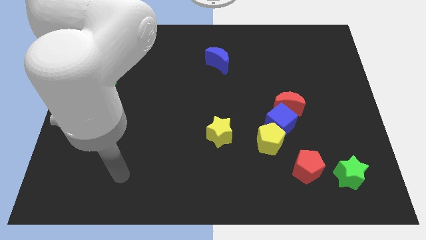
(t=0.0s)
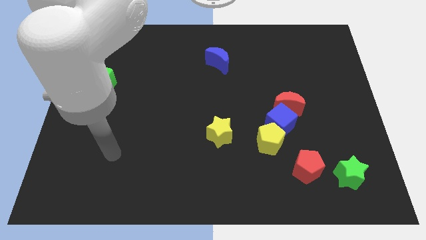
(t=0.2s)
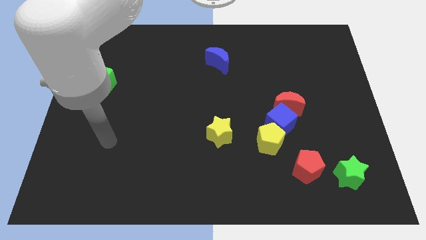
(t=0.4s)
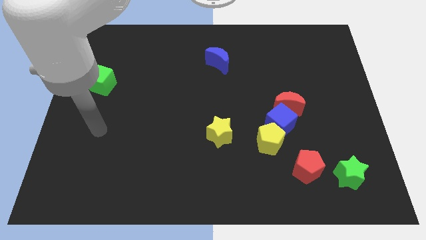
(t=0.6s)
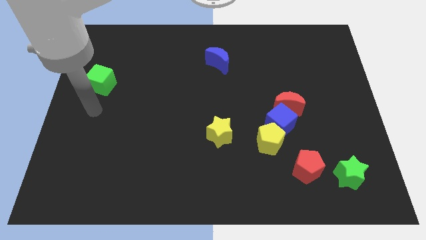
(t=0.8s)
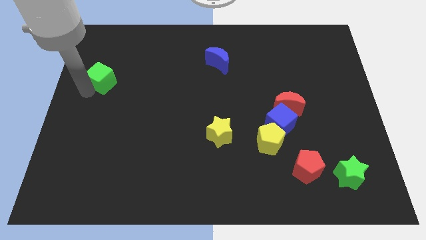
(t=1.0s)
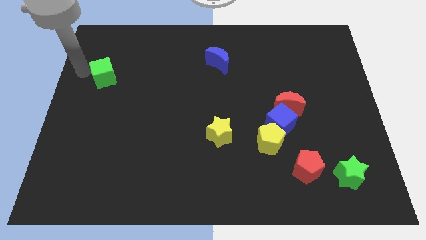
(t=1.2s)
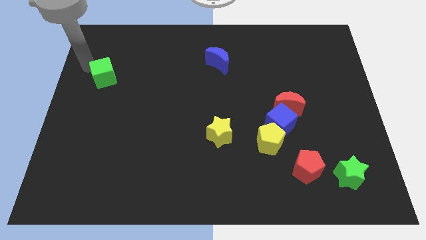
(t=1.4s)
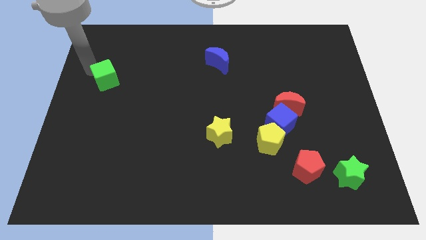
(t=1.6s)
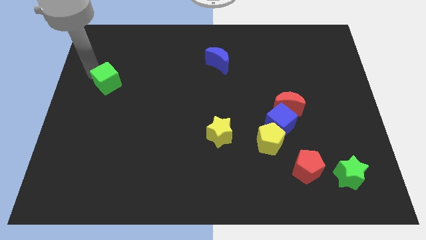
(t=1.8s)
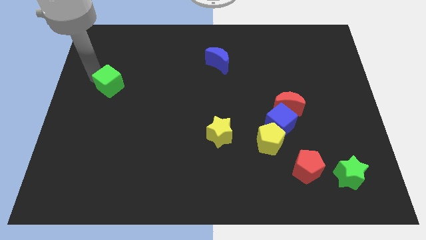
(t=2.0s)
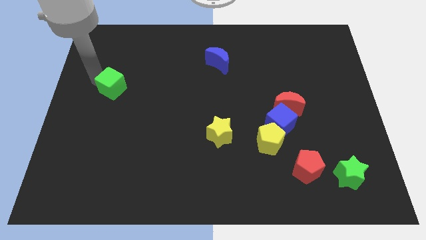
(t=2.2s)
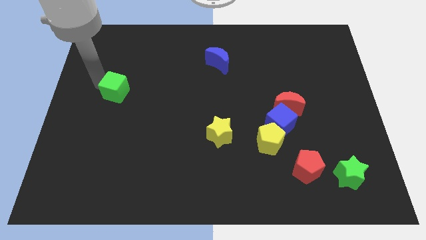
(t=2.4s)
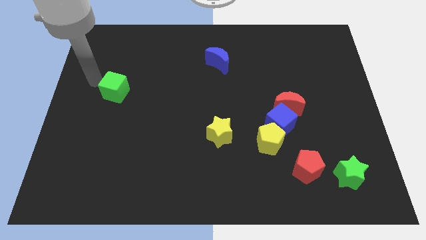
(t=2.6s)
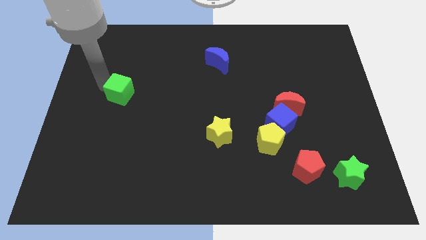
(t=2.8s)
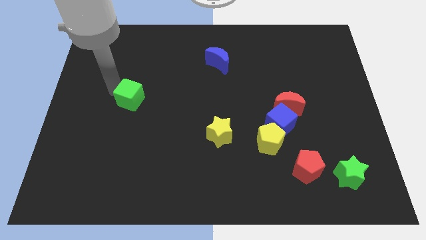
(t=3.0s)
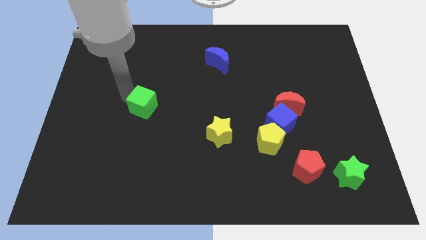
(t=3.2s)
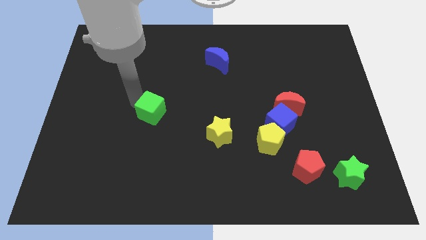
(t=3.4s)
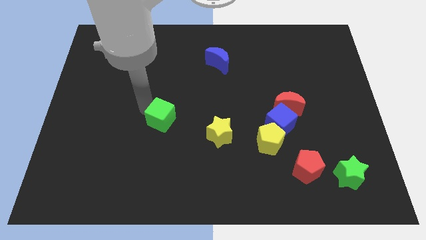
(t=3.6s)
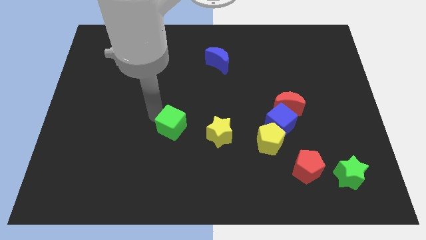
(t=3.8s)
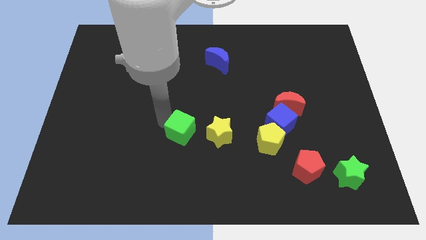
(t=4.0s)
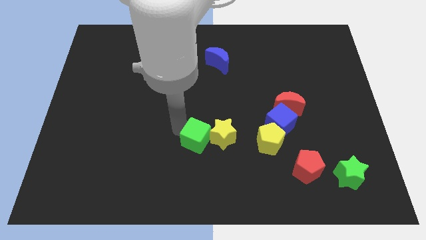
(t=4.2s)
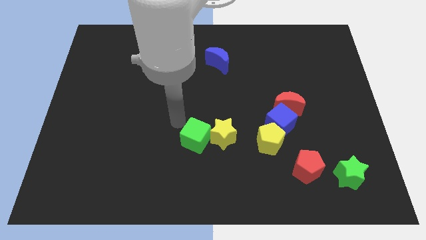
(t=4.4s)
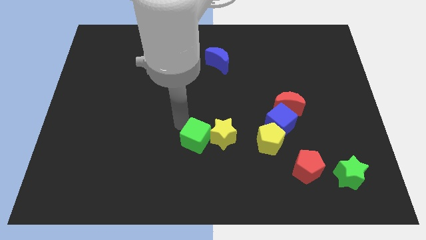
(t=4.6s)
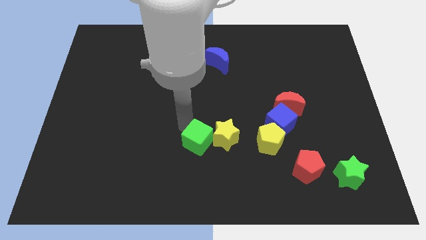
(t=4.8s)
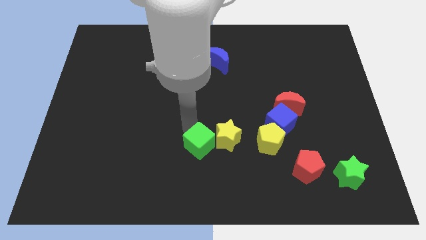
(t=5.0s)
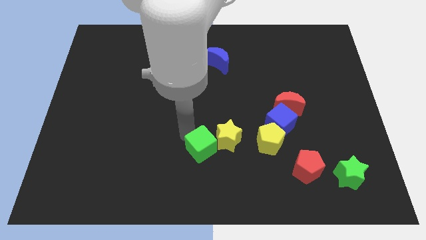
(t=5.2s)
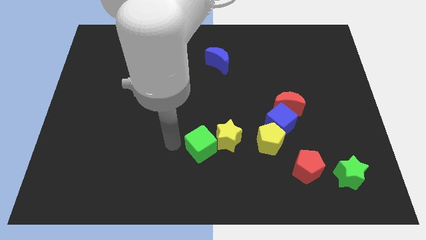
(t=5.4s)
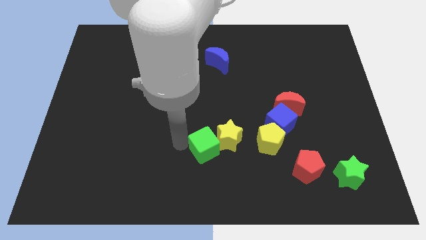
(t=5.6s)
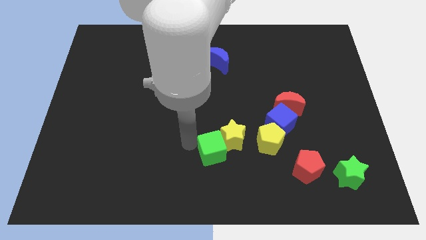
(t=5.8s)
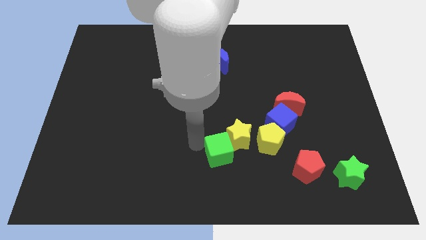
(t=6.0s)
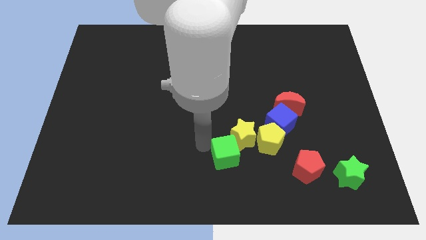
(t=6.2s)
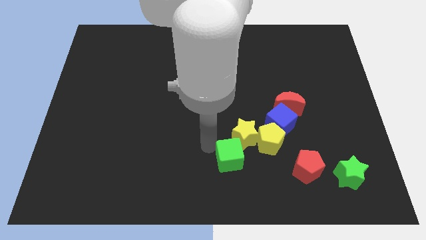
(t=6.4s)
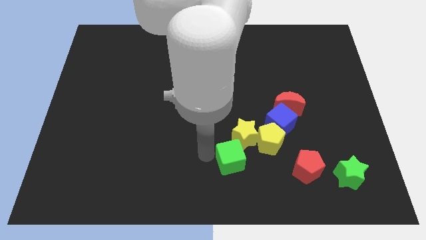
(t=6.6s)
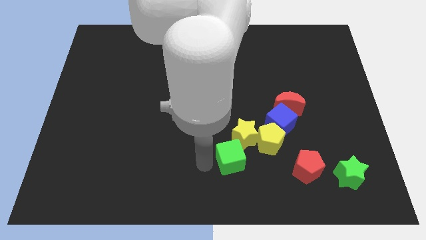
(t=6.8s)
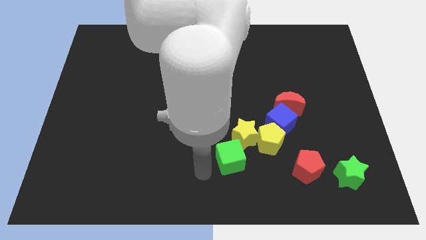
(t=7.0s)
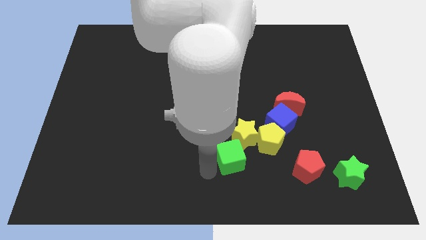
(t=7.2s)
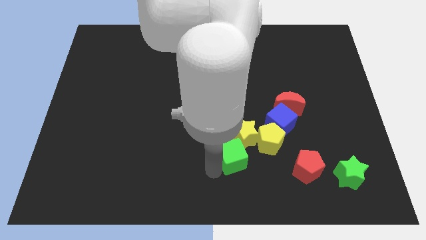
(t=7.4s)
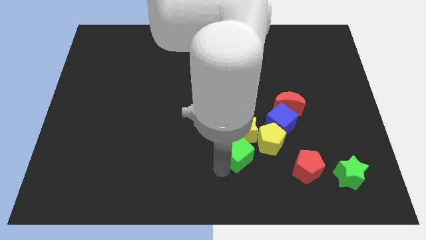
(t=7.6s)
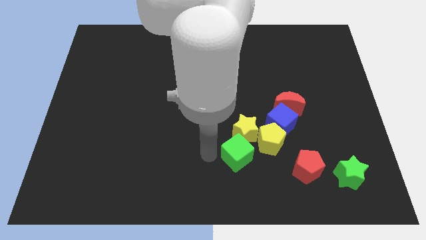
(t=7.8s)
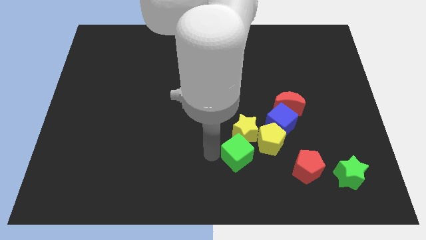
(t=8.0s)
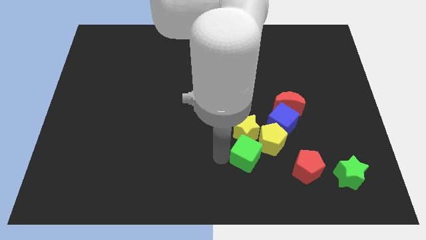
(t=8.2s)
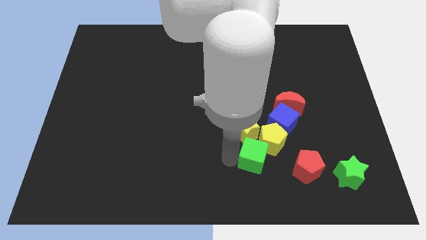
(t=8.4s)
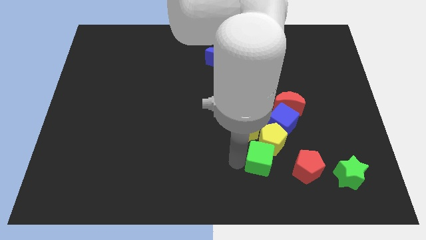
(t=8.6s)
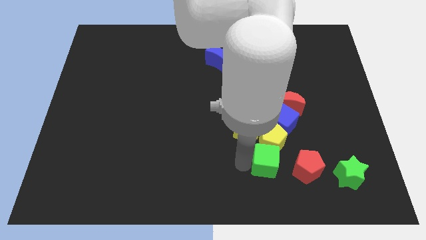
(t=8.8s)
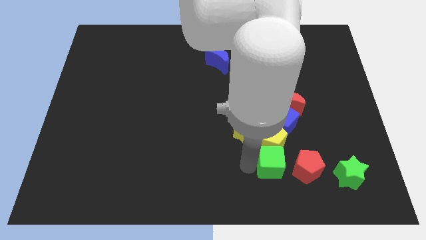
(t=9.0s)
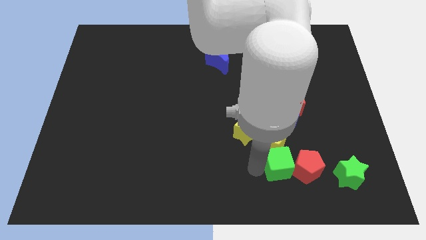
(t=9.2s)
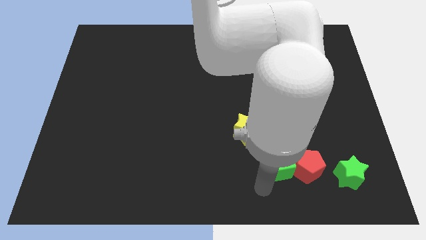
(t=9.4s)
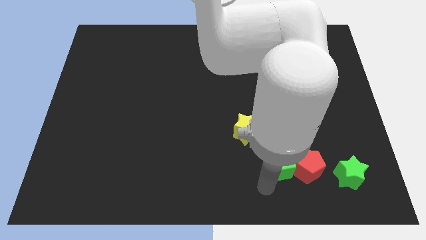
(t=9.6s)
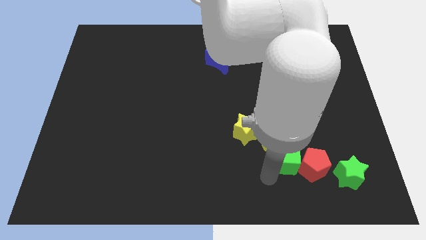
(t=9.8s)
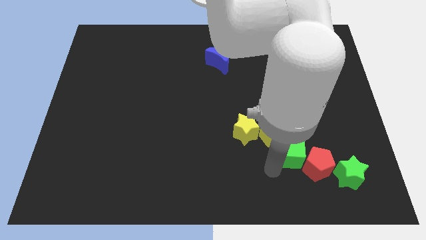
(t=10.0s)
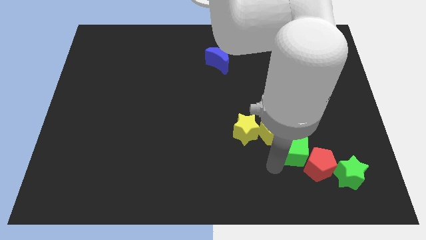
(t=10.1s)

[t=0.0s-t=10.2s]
slide the green cube to the top of the red pentagon

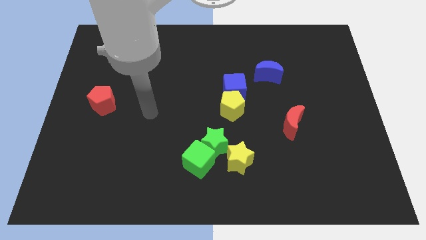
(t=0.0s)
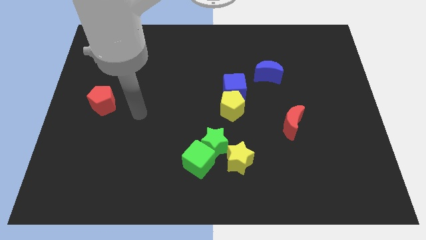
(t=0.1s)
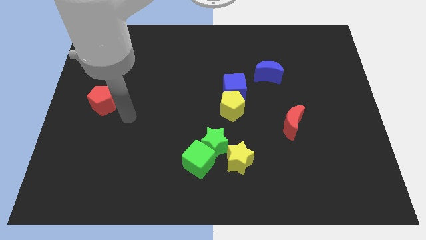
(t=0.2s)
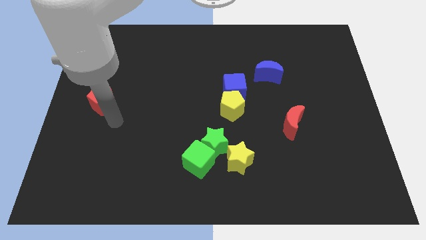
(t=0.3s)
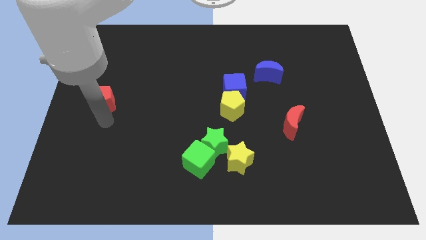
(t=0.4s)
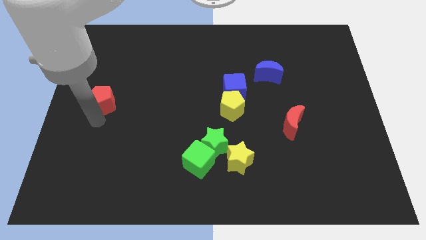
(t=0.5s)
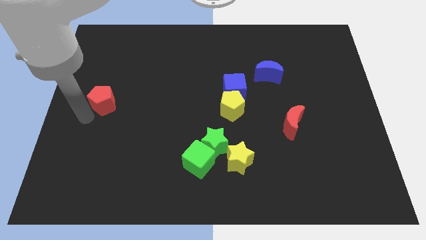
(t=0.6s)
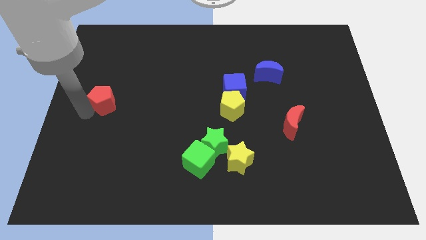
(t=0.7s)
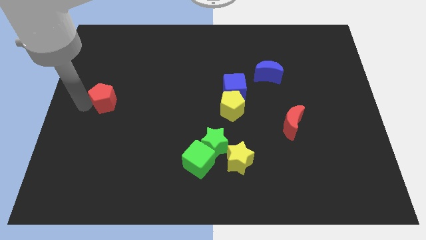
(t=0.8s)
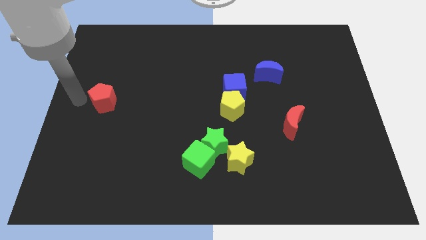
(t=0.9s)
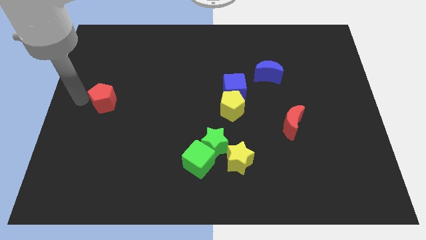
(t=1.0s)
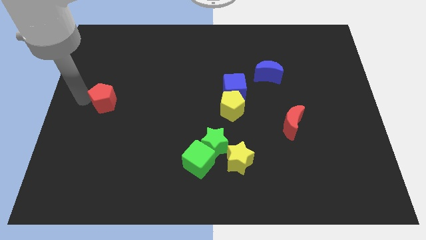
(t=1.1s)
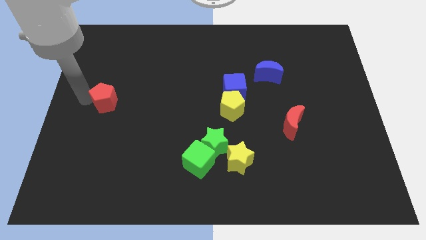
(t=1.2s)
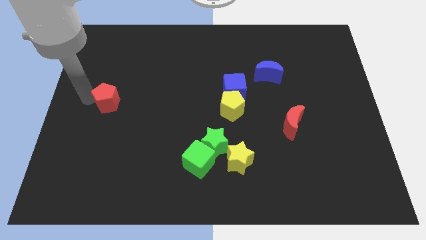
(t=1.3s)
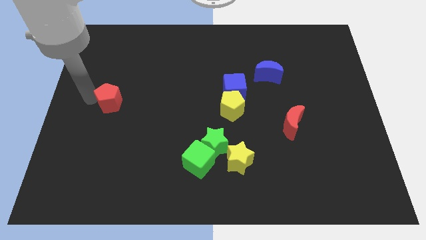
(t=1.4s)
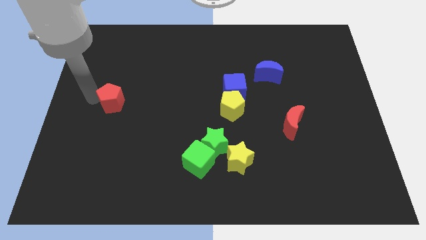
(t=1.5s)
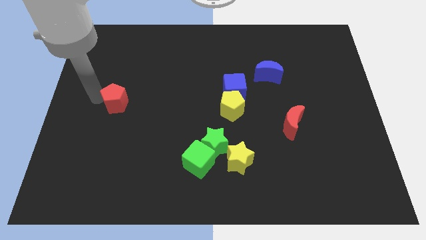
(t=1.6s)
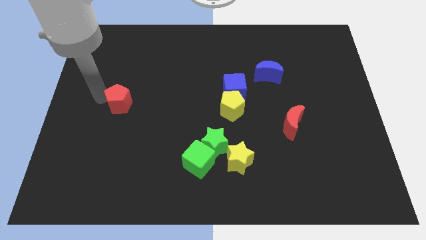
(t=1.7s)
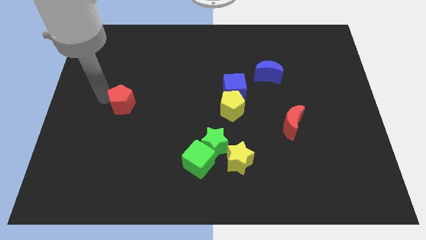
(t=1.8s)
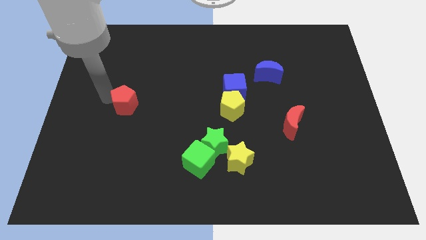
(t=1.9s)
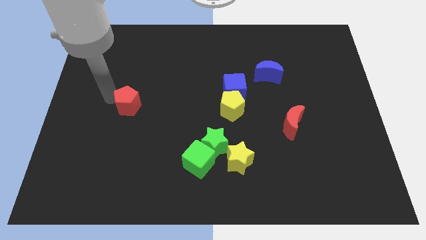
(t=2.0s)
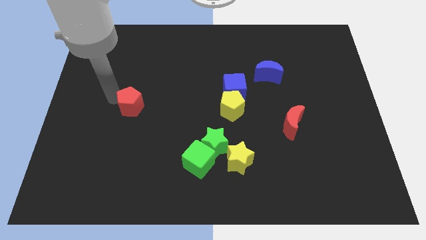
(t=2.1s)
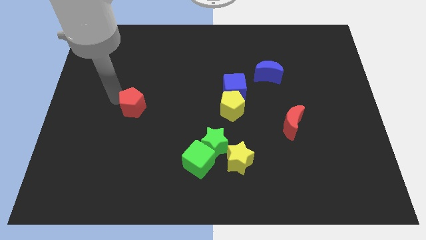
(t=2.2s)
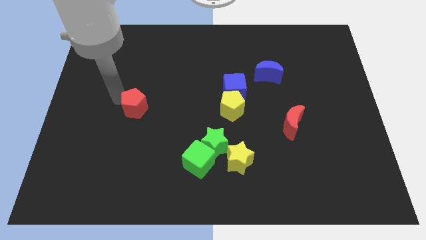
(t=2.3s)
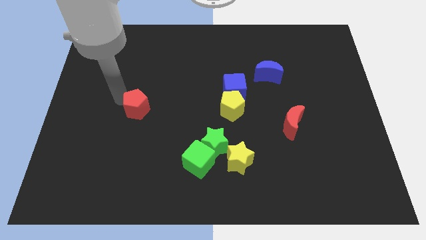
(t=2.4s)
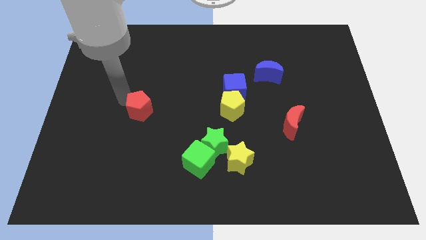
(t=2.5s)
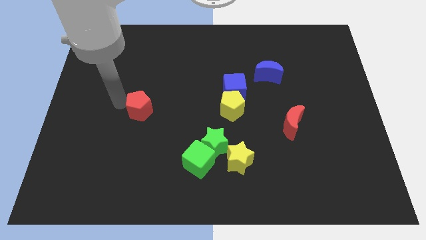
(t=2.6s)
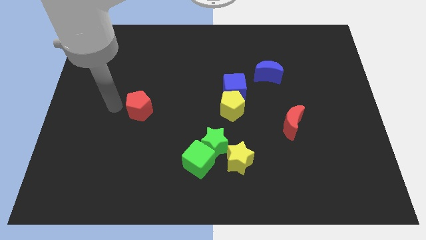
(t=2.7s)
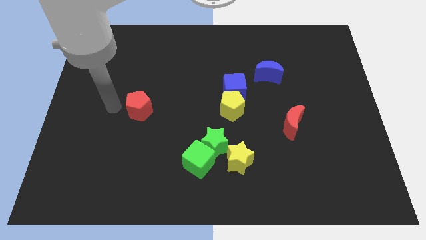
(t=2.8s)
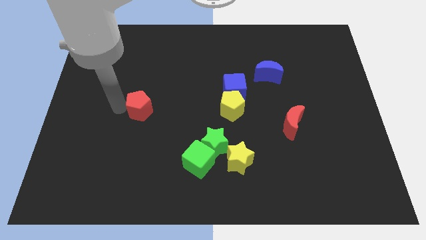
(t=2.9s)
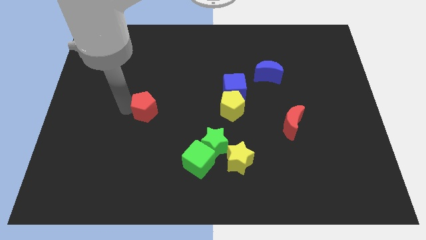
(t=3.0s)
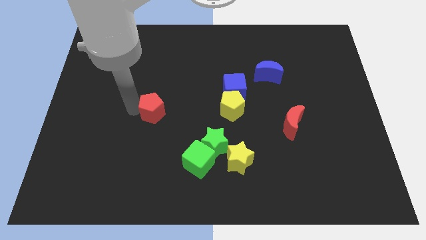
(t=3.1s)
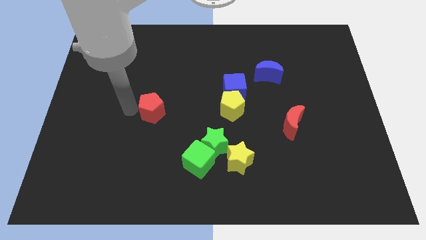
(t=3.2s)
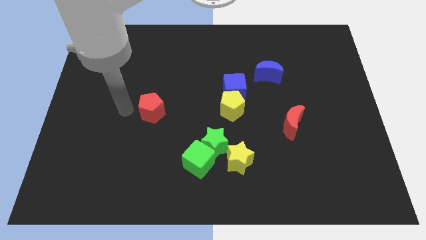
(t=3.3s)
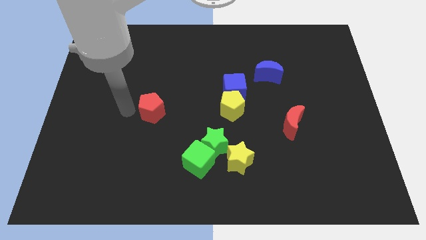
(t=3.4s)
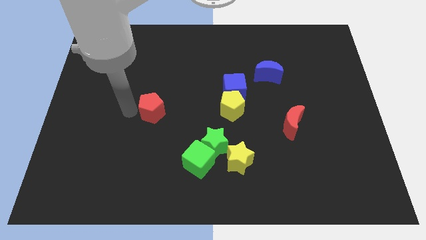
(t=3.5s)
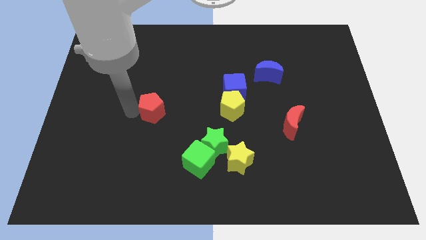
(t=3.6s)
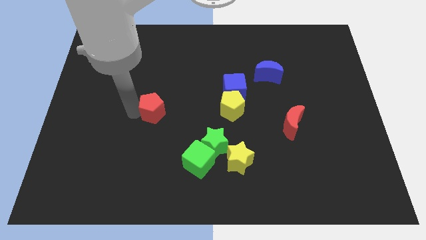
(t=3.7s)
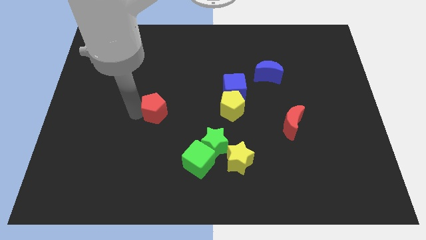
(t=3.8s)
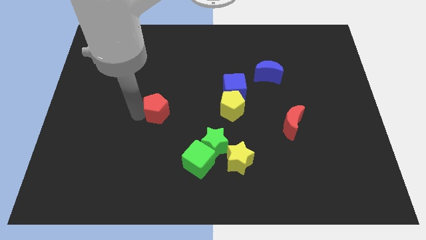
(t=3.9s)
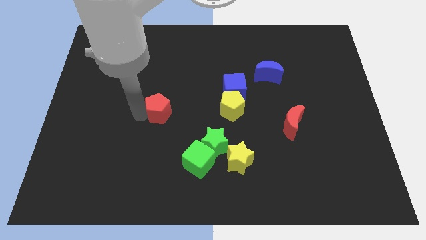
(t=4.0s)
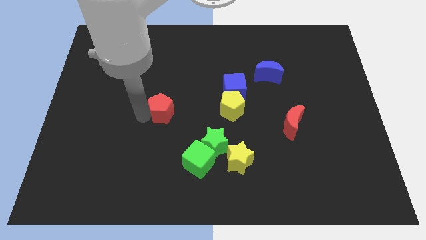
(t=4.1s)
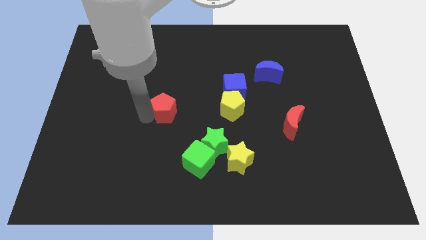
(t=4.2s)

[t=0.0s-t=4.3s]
move the red pentagon to the left side of the yellow pentagon
